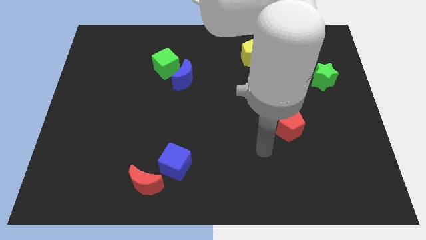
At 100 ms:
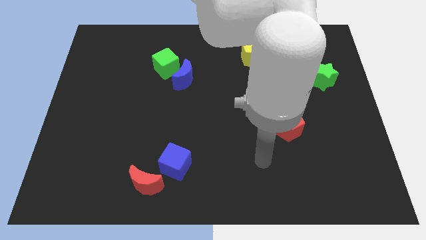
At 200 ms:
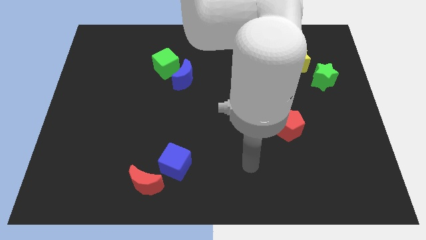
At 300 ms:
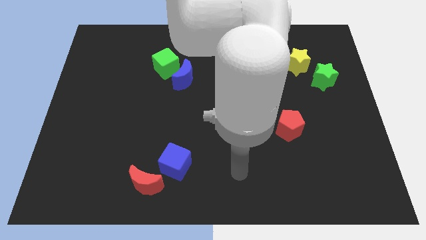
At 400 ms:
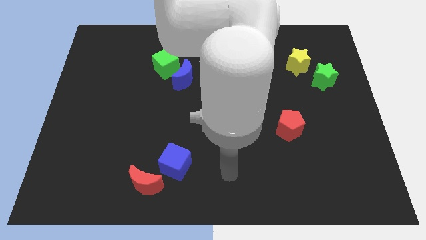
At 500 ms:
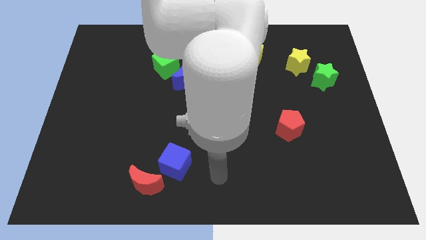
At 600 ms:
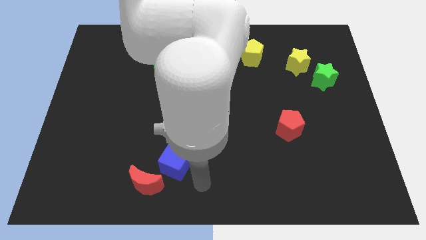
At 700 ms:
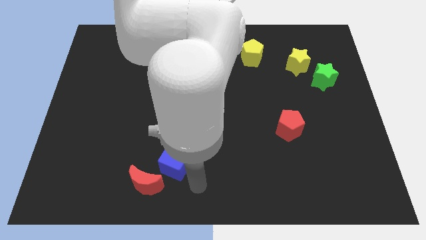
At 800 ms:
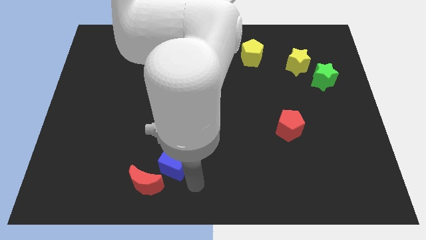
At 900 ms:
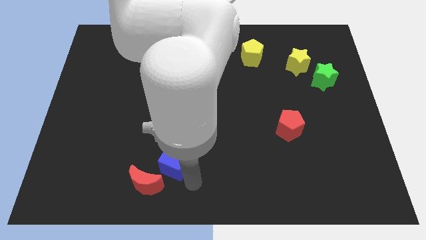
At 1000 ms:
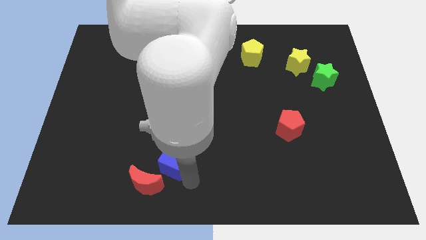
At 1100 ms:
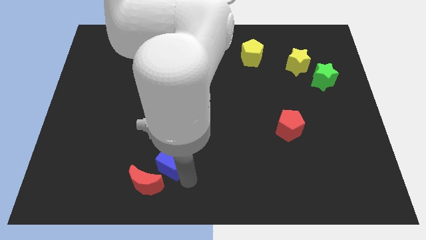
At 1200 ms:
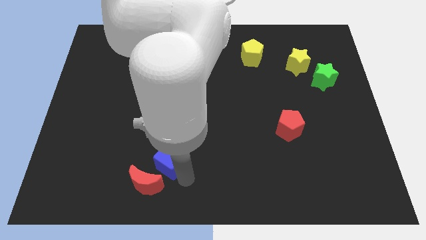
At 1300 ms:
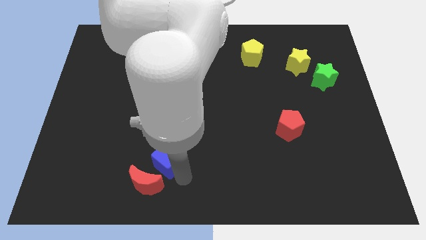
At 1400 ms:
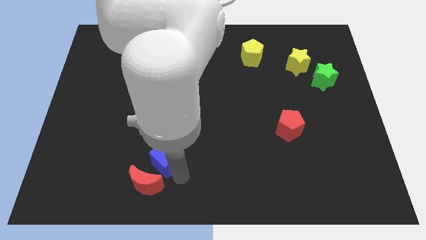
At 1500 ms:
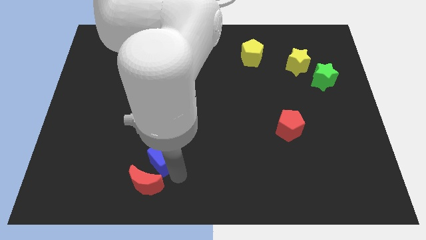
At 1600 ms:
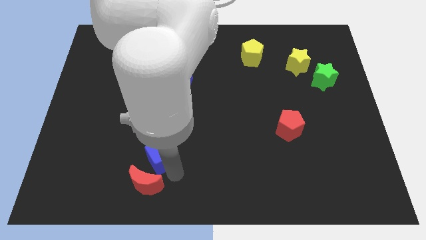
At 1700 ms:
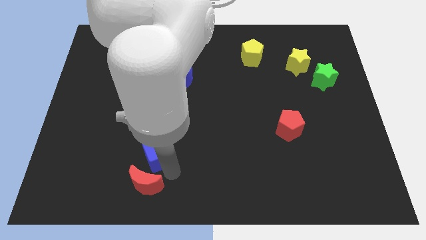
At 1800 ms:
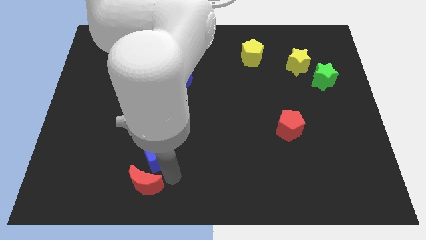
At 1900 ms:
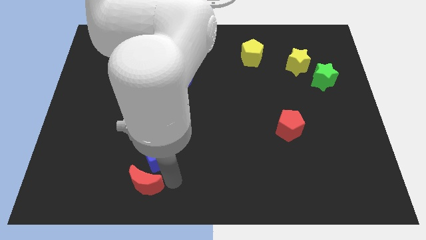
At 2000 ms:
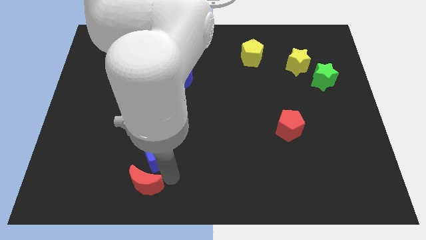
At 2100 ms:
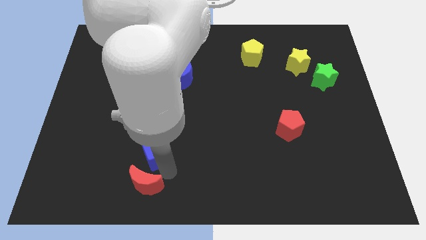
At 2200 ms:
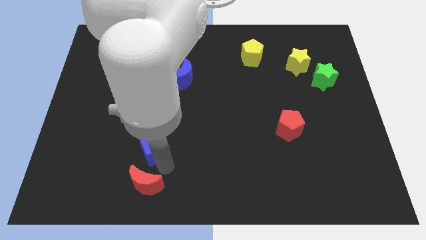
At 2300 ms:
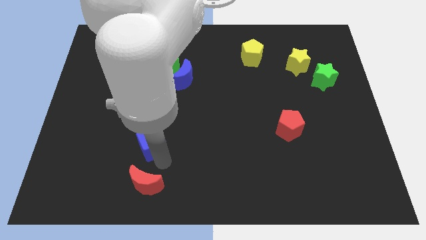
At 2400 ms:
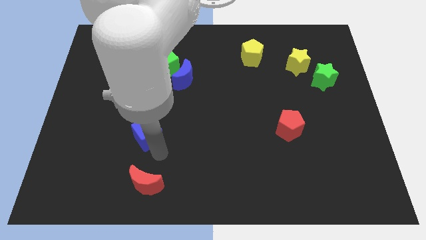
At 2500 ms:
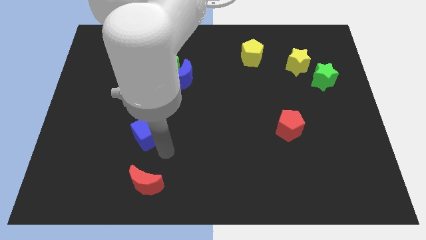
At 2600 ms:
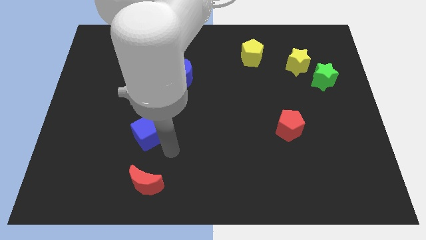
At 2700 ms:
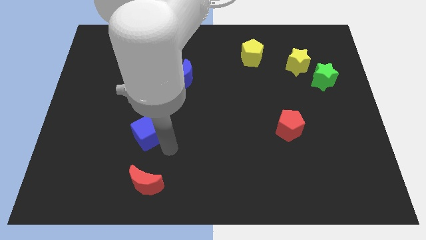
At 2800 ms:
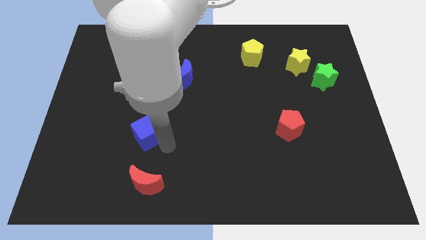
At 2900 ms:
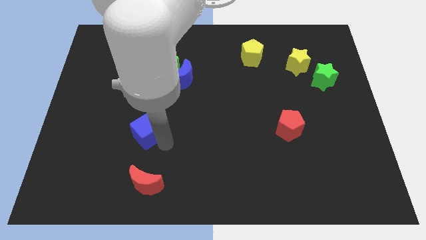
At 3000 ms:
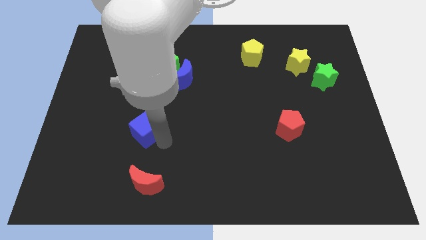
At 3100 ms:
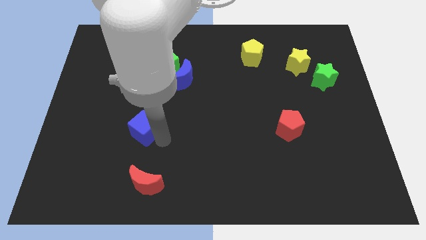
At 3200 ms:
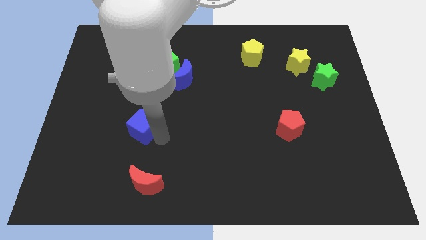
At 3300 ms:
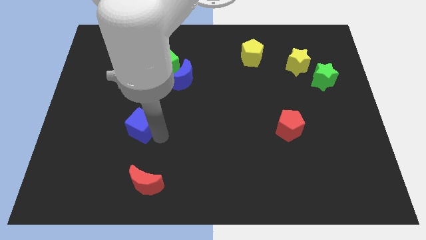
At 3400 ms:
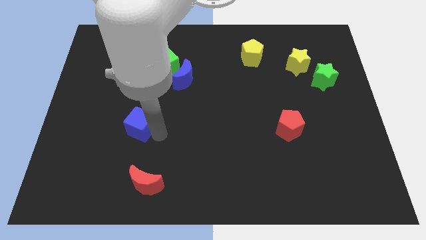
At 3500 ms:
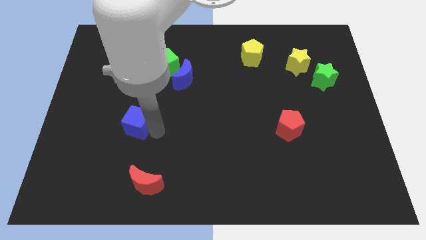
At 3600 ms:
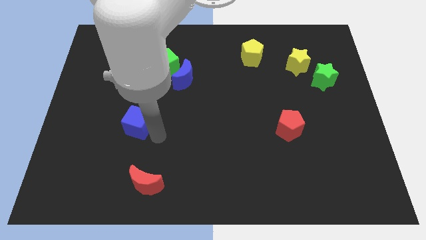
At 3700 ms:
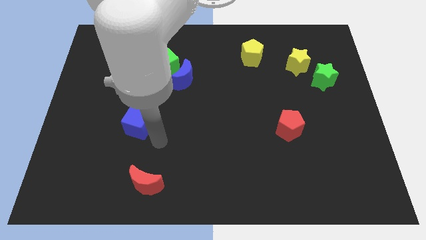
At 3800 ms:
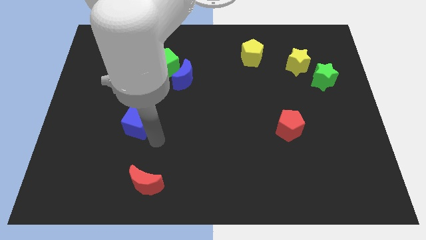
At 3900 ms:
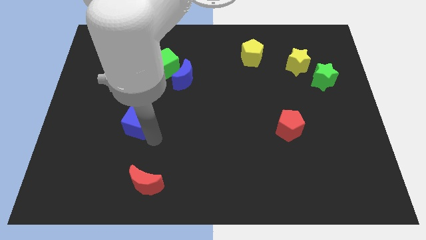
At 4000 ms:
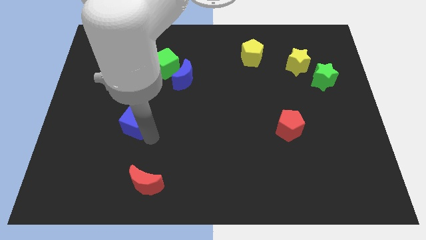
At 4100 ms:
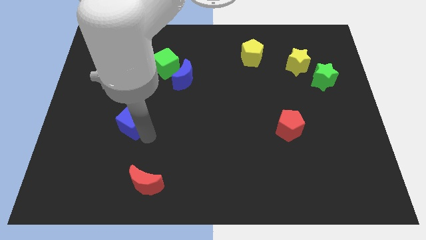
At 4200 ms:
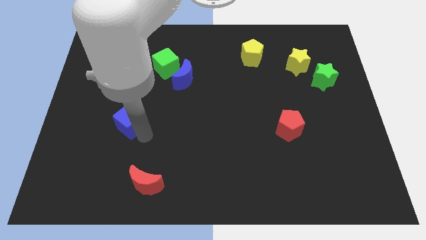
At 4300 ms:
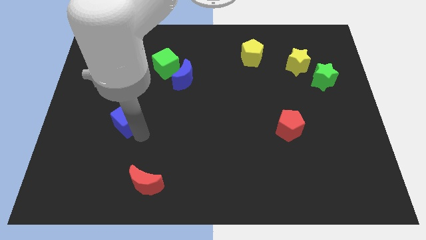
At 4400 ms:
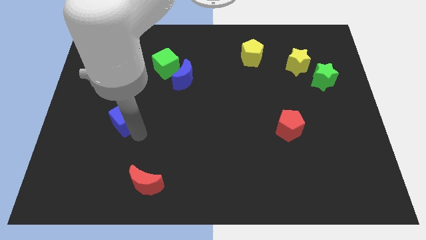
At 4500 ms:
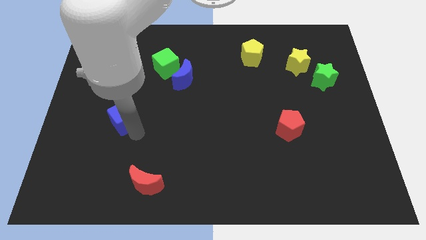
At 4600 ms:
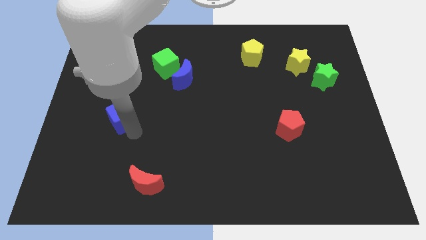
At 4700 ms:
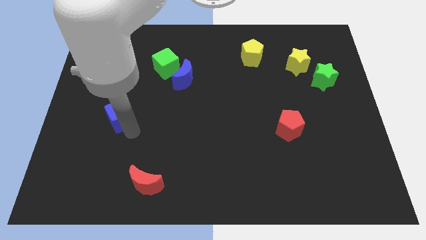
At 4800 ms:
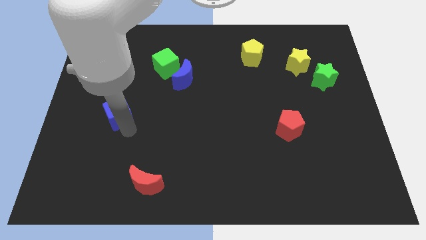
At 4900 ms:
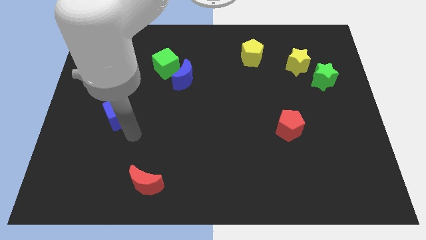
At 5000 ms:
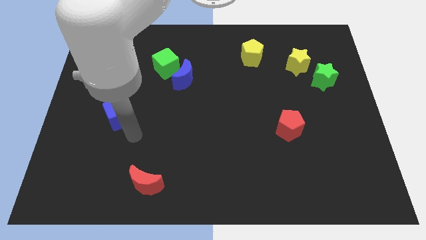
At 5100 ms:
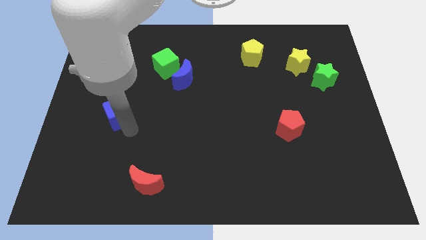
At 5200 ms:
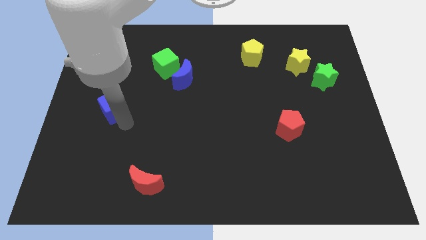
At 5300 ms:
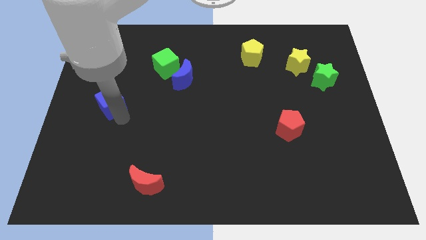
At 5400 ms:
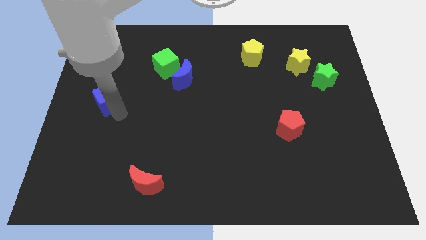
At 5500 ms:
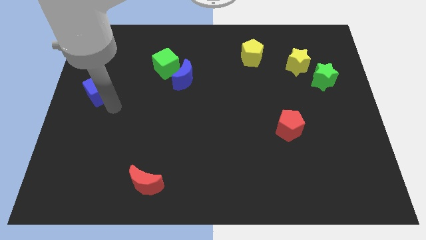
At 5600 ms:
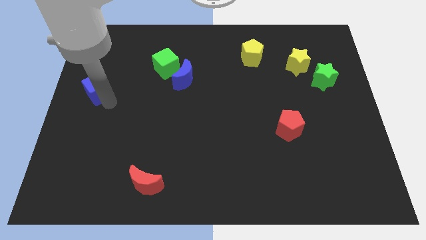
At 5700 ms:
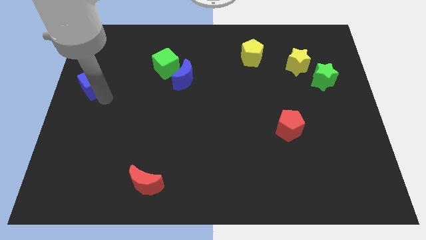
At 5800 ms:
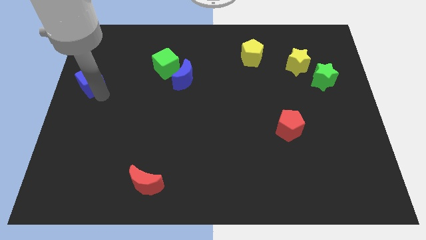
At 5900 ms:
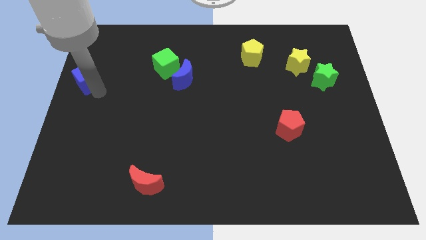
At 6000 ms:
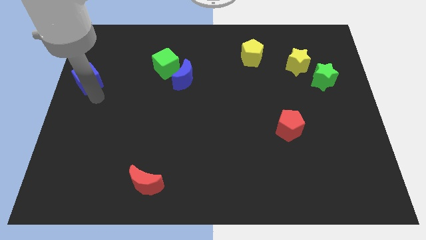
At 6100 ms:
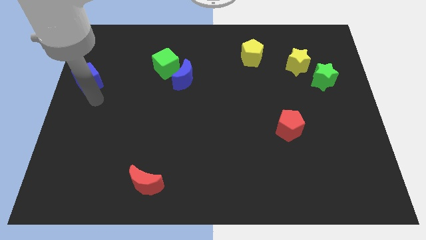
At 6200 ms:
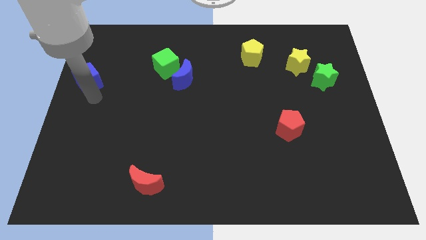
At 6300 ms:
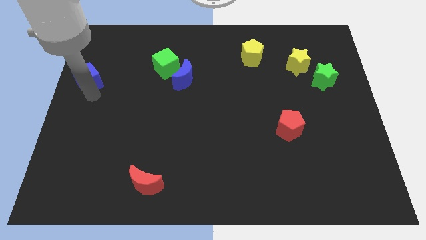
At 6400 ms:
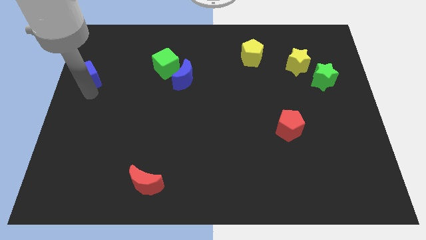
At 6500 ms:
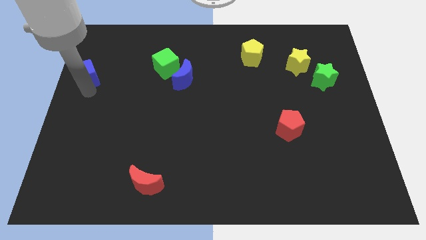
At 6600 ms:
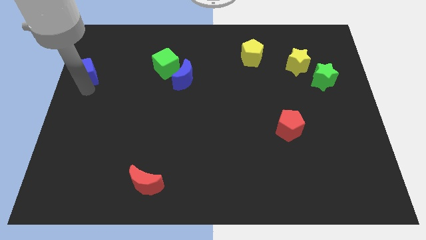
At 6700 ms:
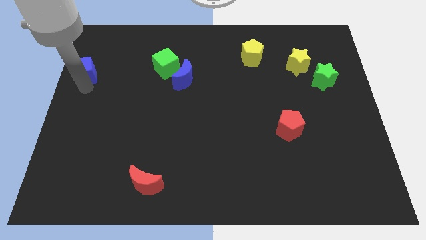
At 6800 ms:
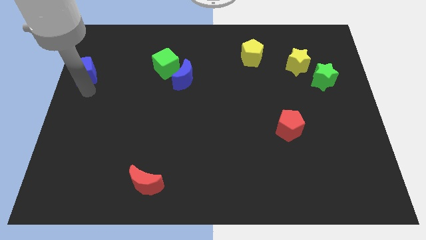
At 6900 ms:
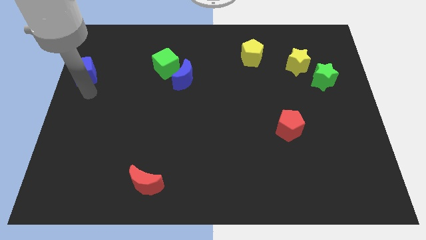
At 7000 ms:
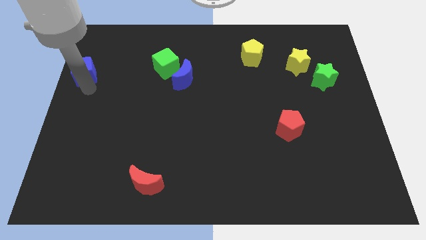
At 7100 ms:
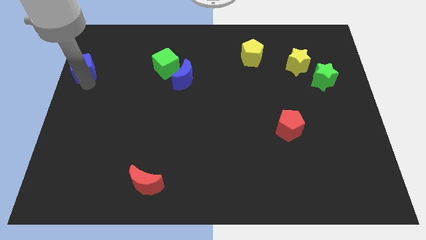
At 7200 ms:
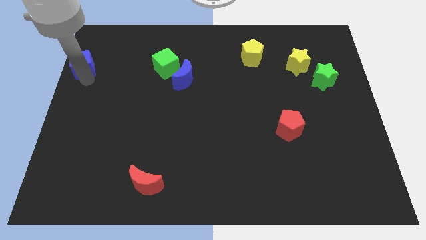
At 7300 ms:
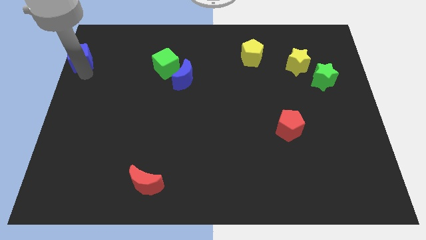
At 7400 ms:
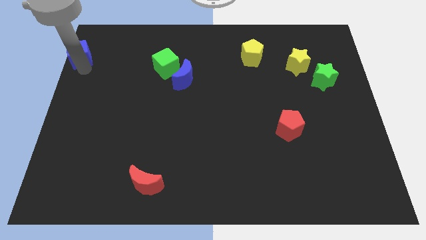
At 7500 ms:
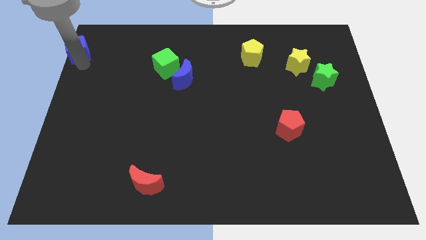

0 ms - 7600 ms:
slide the blue cube to the upper left corner
